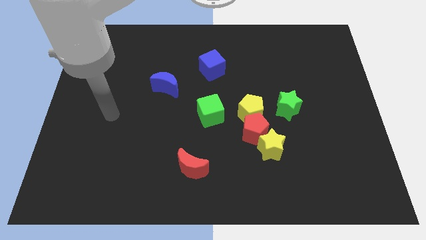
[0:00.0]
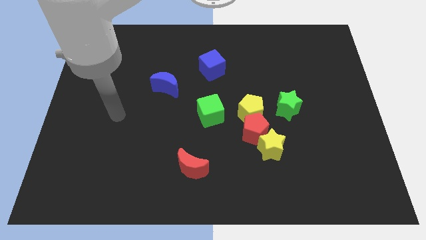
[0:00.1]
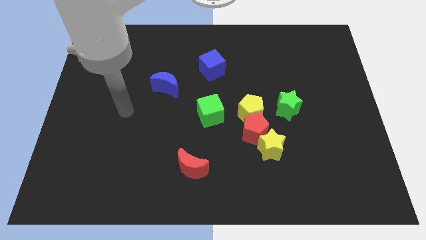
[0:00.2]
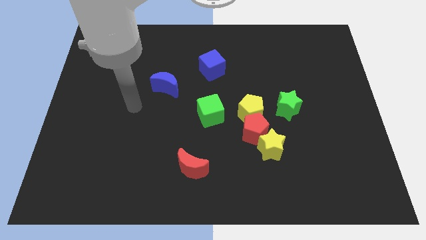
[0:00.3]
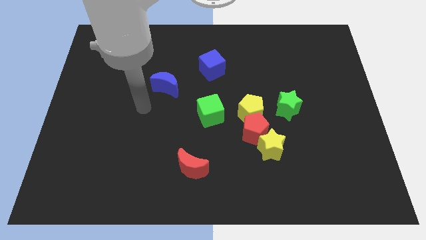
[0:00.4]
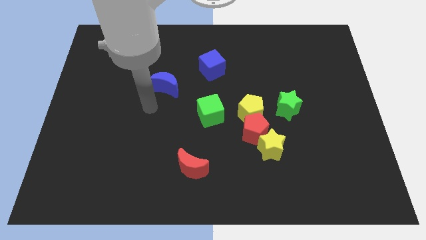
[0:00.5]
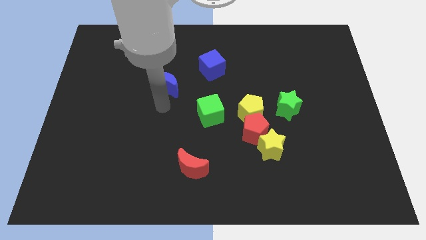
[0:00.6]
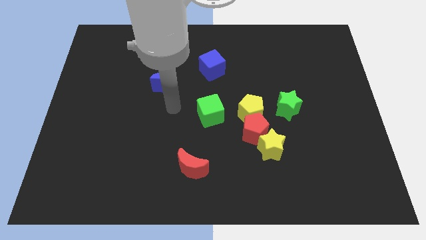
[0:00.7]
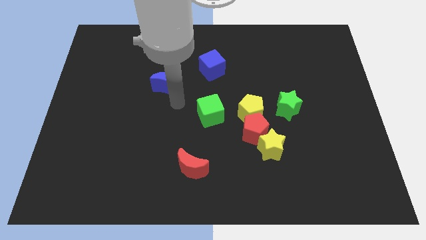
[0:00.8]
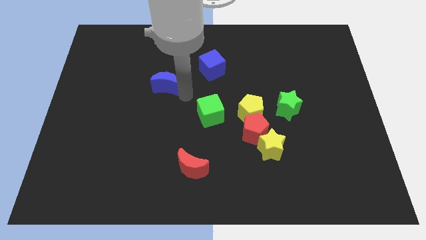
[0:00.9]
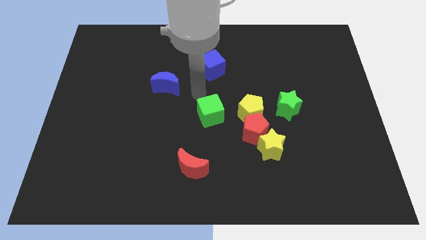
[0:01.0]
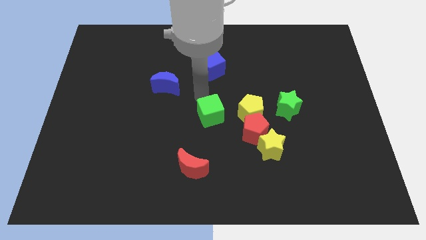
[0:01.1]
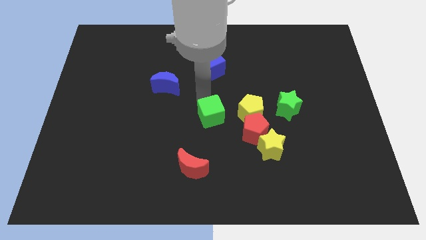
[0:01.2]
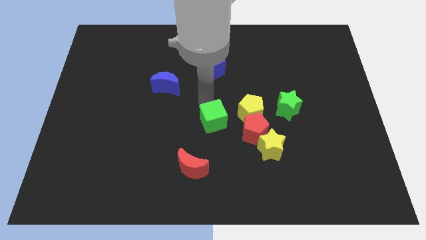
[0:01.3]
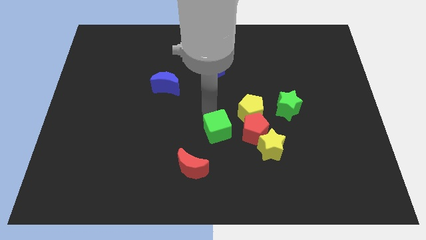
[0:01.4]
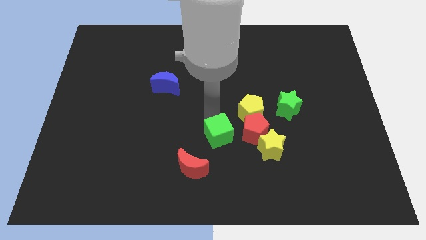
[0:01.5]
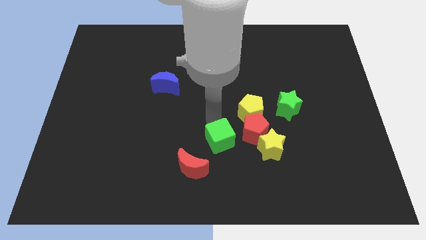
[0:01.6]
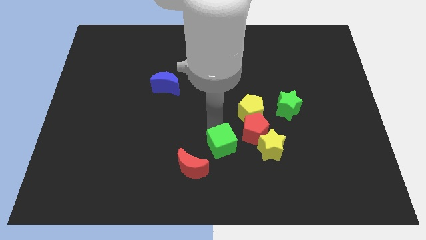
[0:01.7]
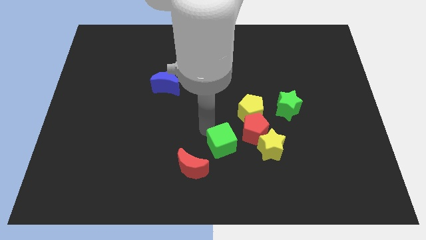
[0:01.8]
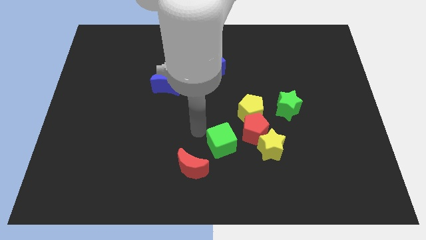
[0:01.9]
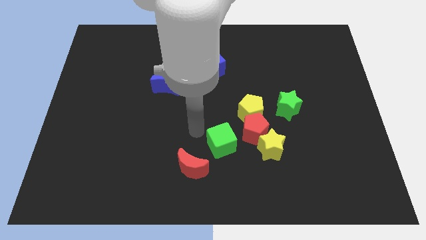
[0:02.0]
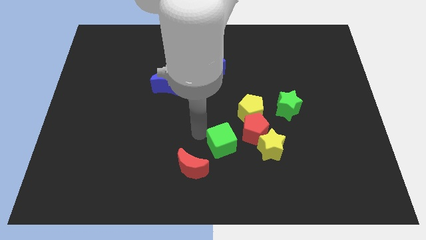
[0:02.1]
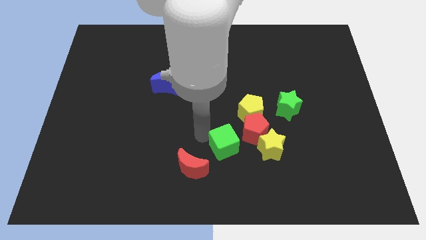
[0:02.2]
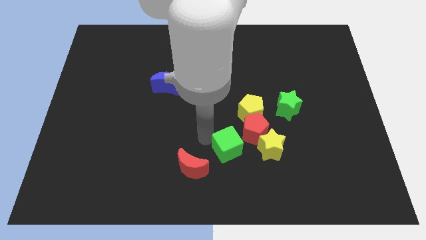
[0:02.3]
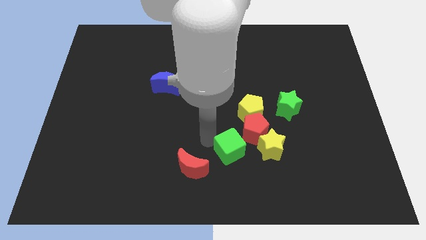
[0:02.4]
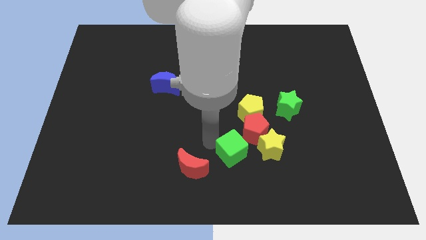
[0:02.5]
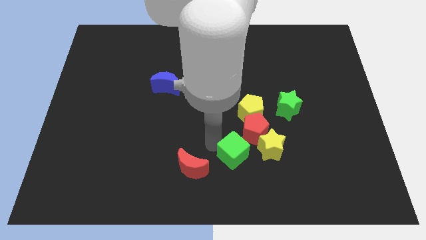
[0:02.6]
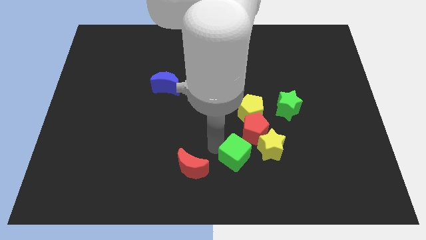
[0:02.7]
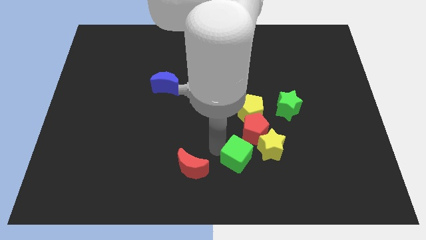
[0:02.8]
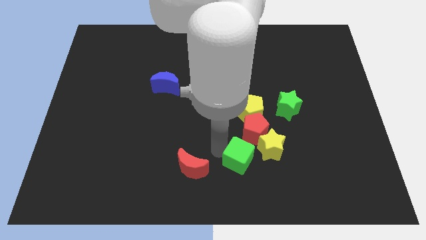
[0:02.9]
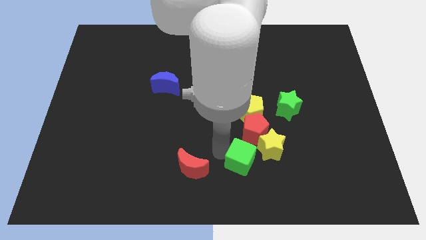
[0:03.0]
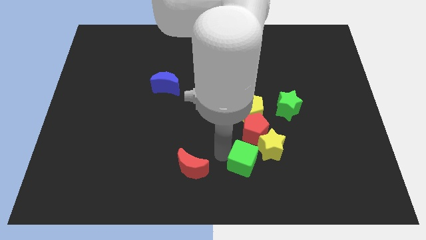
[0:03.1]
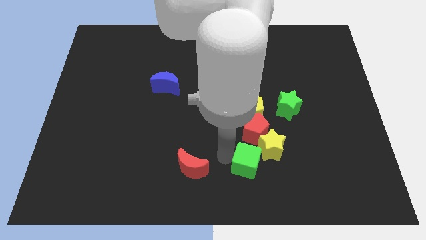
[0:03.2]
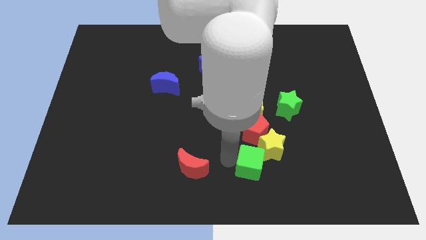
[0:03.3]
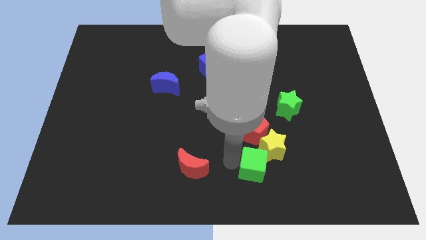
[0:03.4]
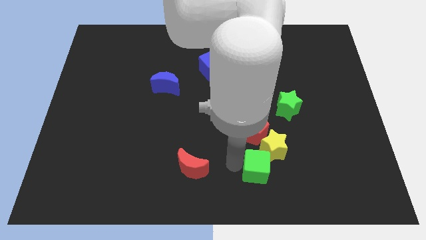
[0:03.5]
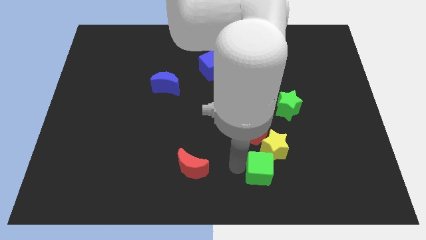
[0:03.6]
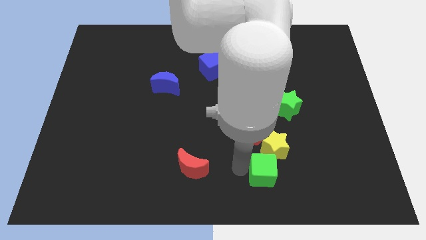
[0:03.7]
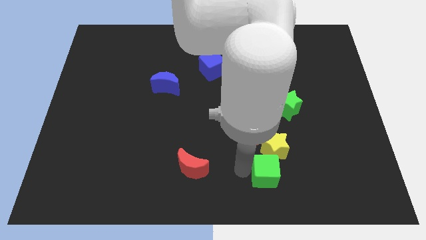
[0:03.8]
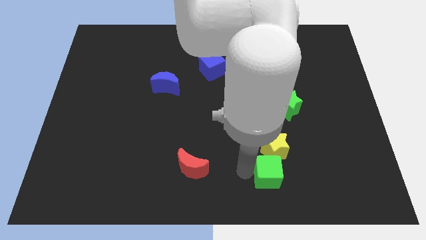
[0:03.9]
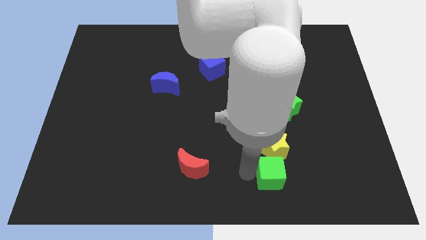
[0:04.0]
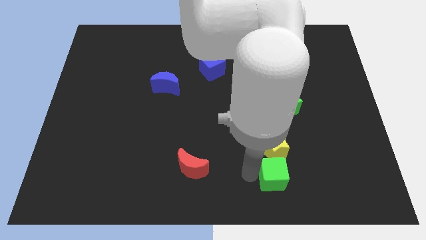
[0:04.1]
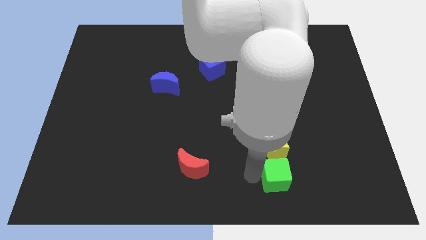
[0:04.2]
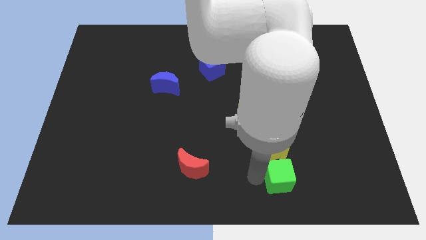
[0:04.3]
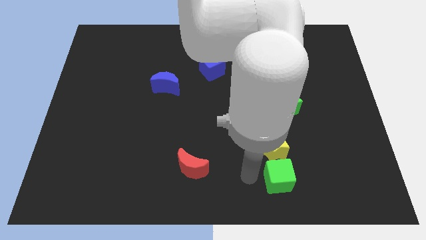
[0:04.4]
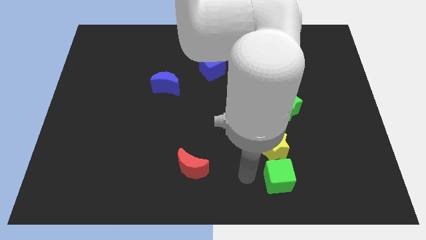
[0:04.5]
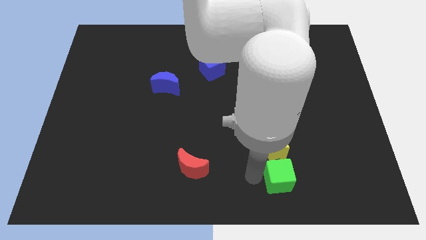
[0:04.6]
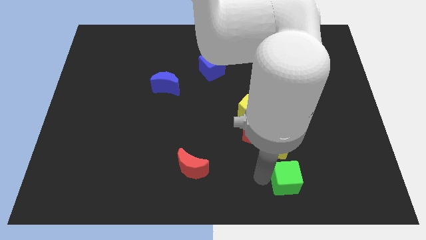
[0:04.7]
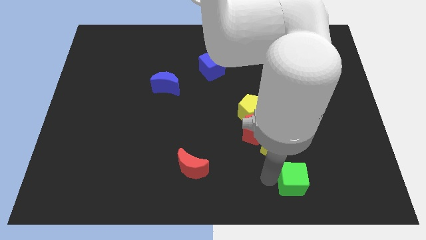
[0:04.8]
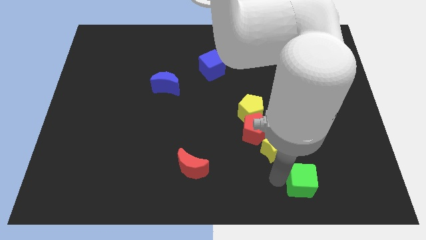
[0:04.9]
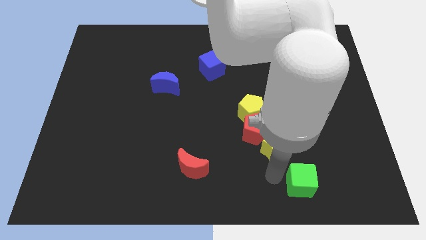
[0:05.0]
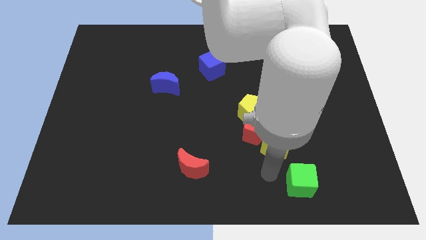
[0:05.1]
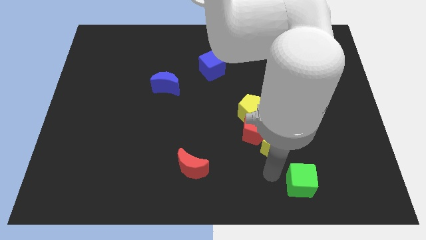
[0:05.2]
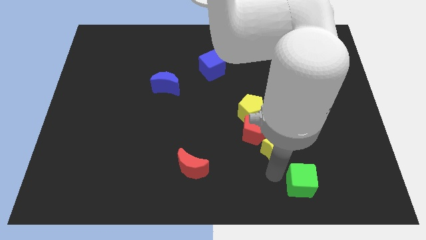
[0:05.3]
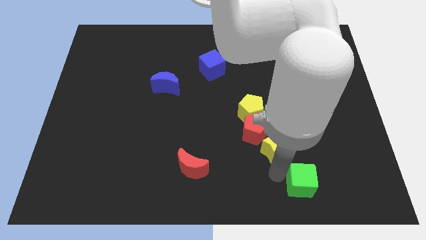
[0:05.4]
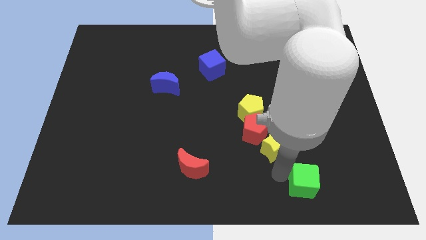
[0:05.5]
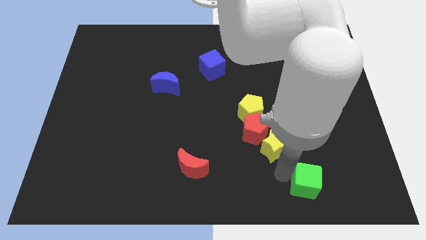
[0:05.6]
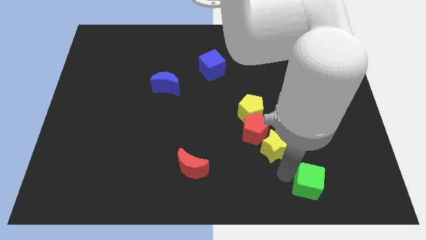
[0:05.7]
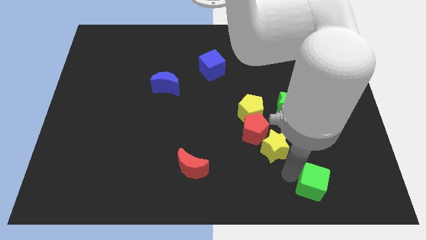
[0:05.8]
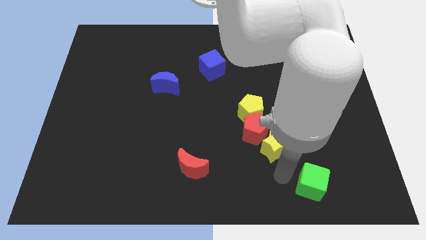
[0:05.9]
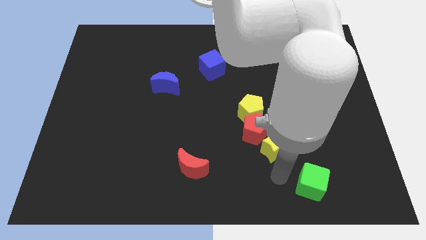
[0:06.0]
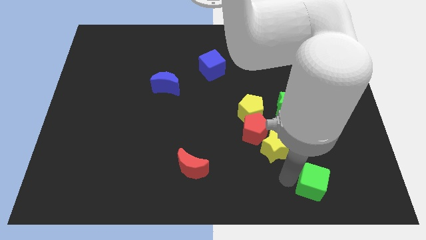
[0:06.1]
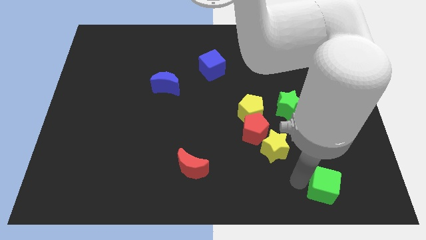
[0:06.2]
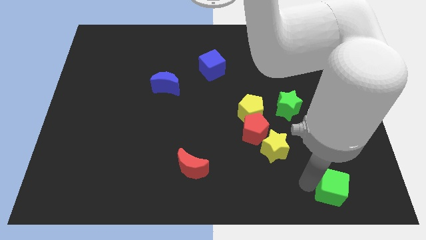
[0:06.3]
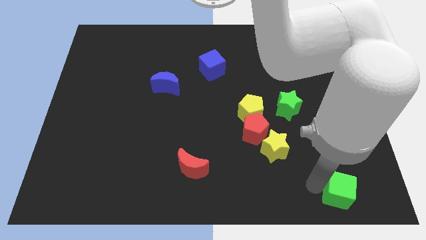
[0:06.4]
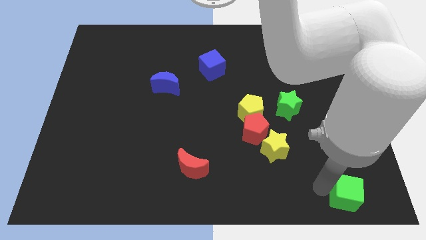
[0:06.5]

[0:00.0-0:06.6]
put the green cube to the bottom right corner
